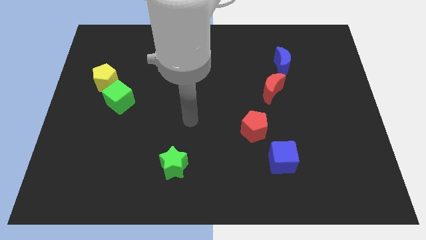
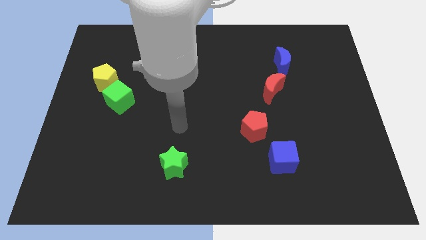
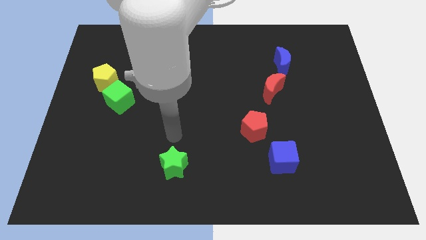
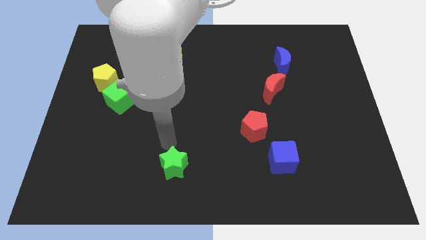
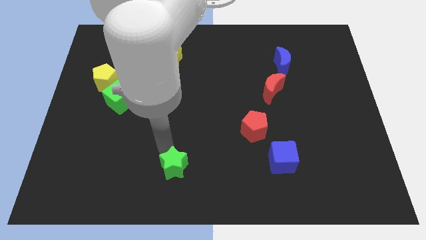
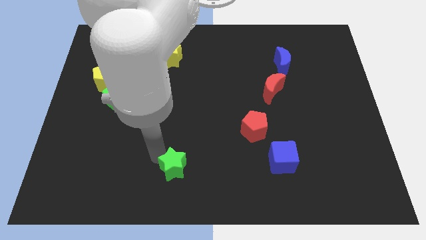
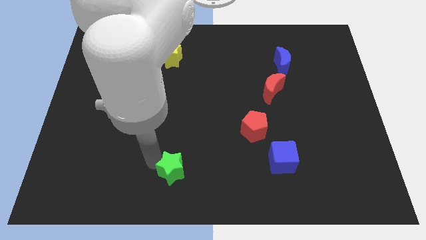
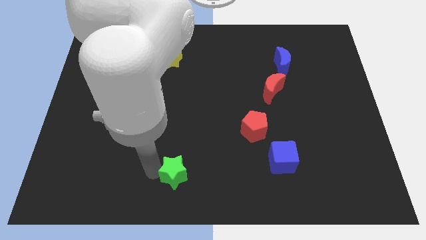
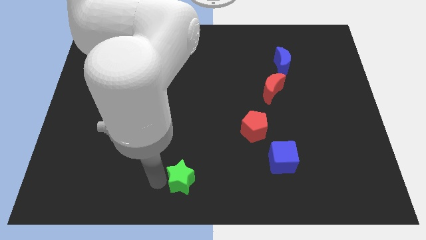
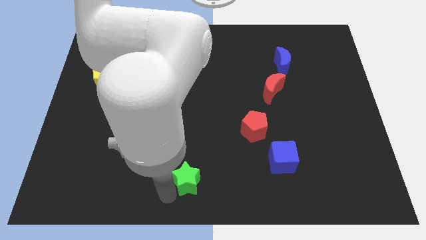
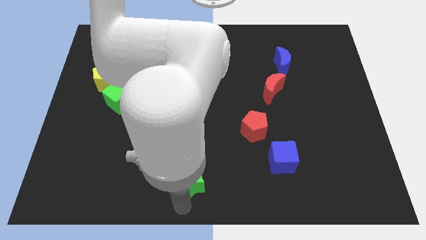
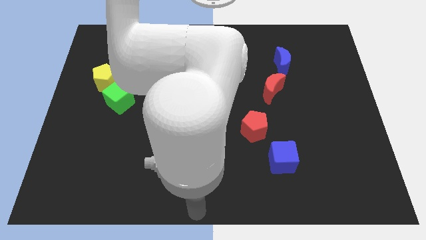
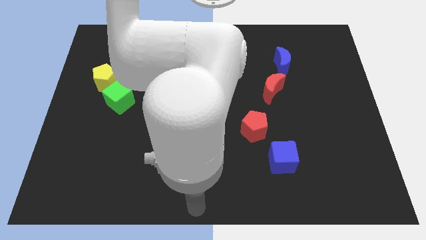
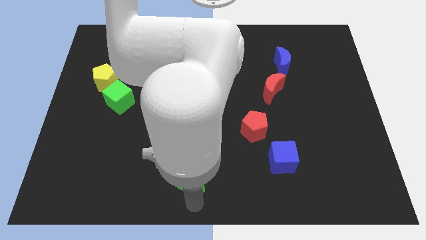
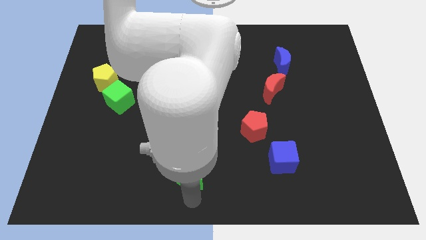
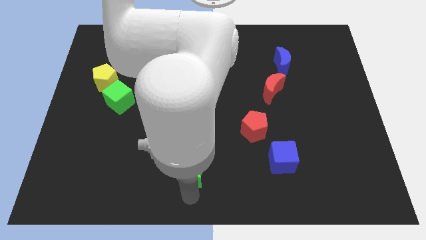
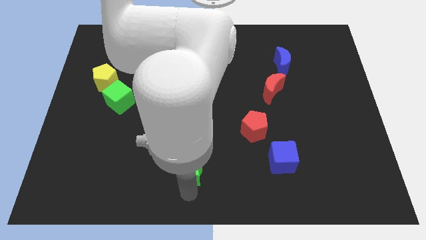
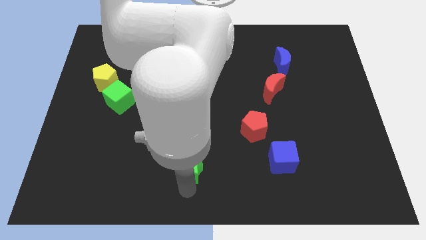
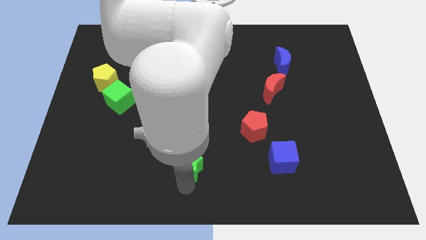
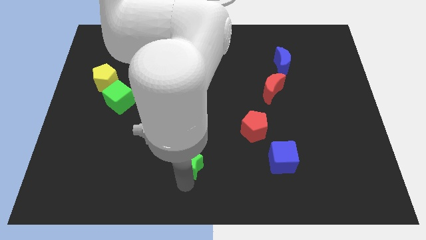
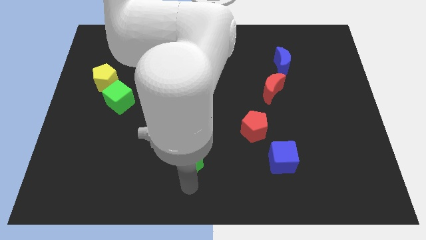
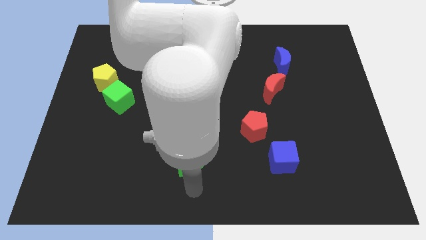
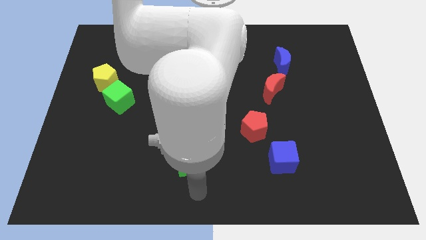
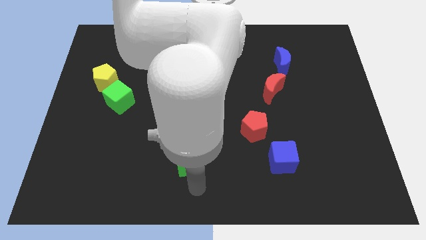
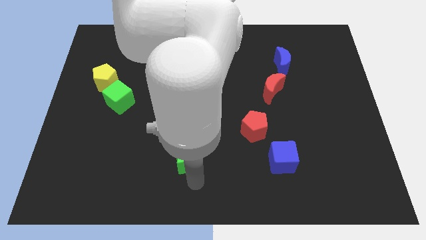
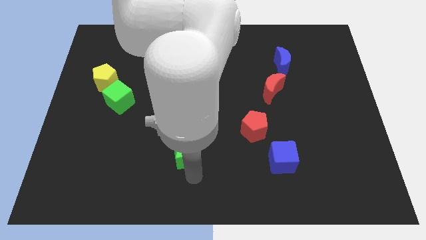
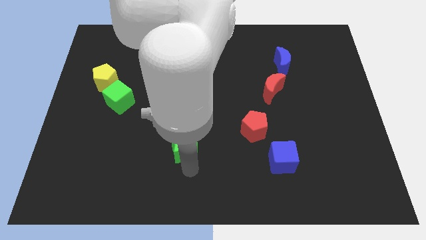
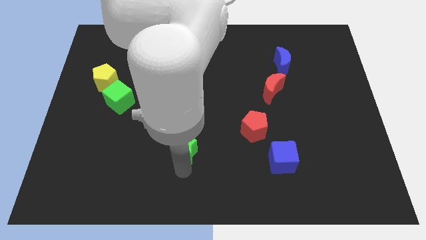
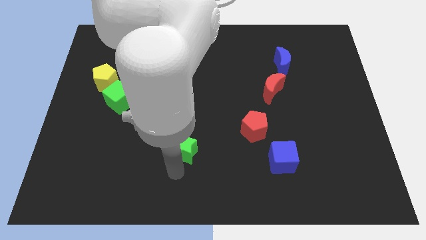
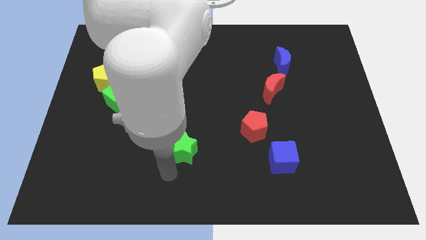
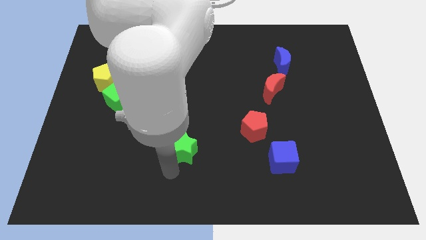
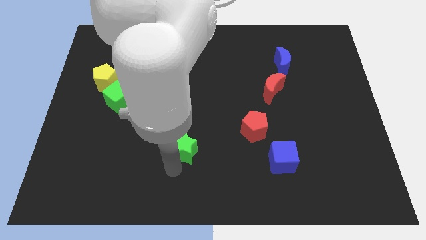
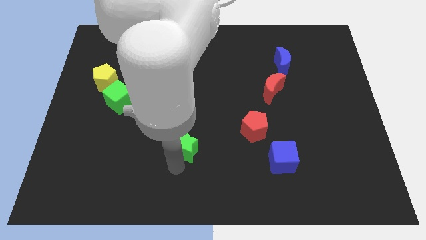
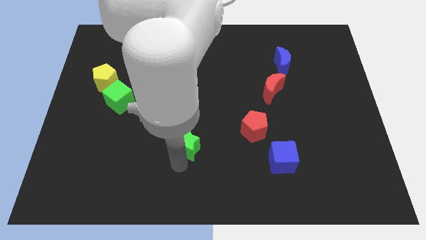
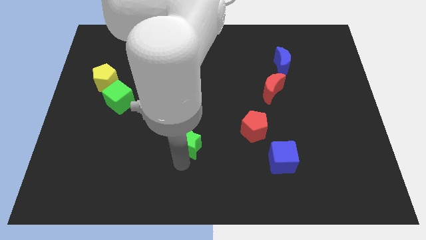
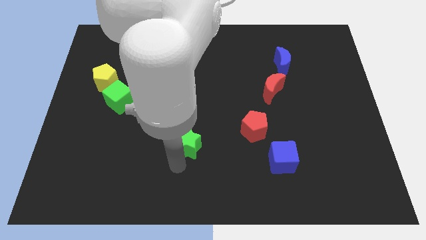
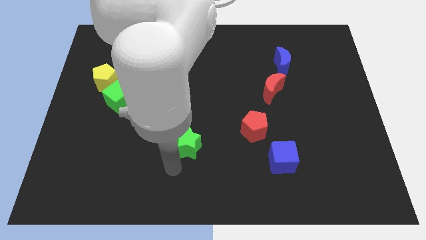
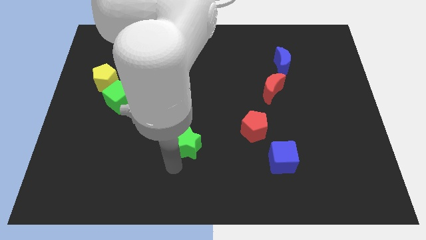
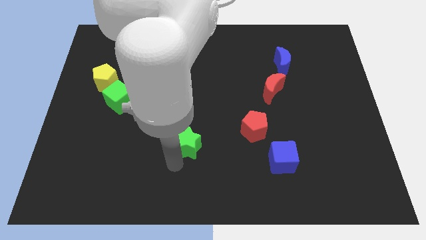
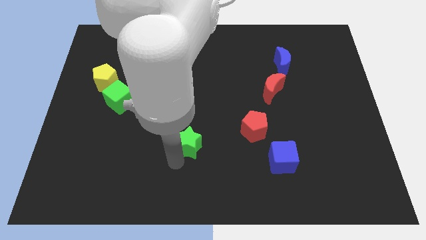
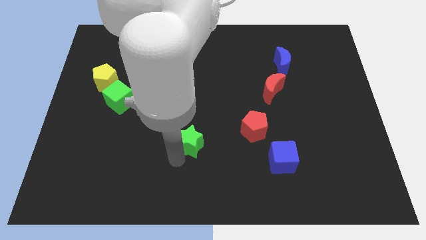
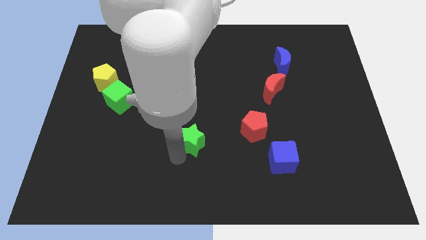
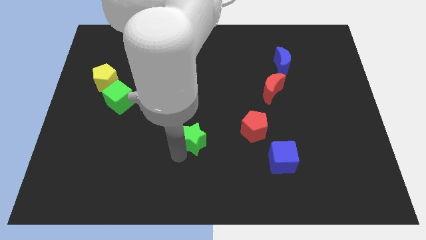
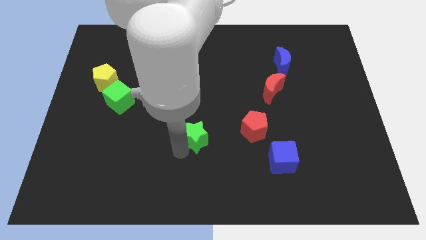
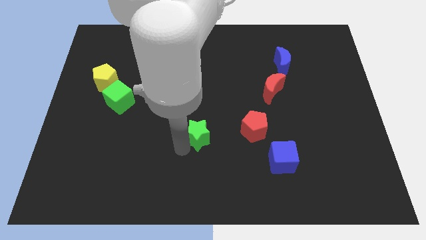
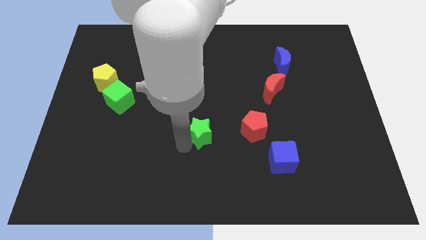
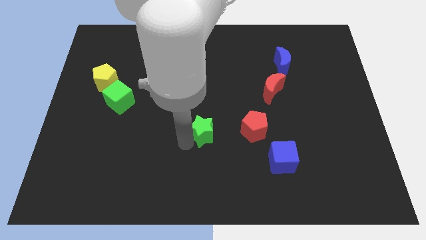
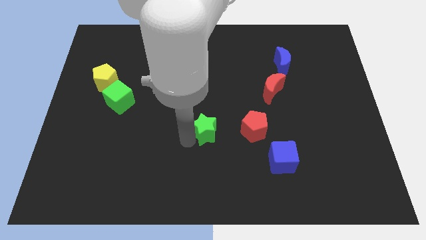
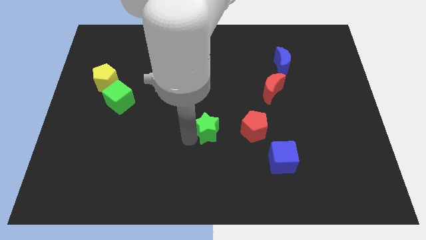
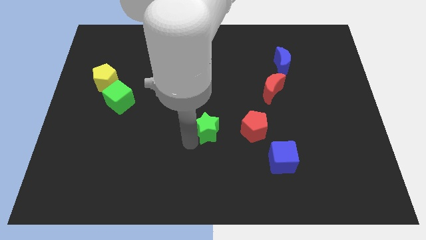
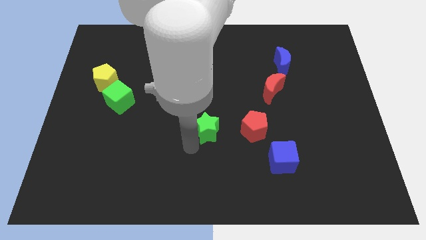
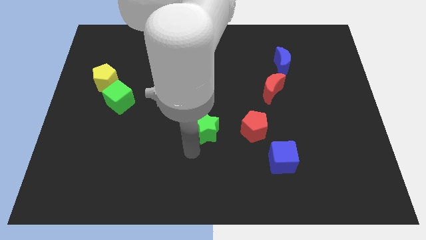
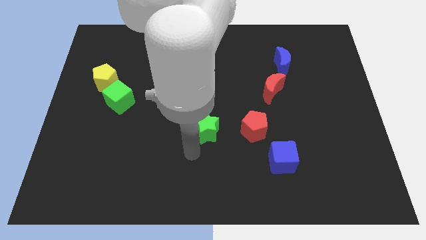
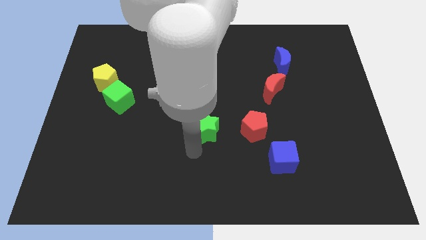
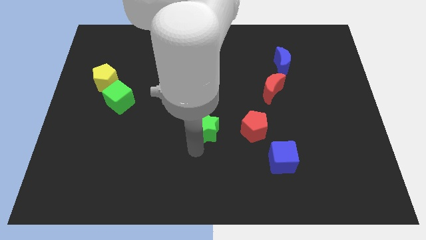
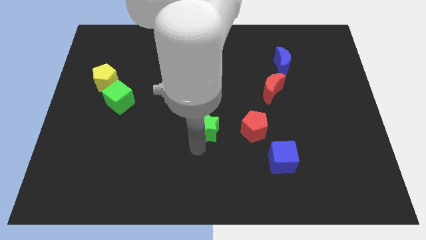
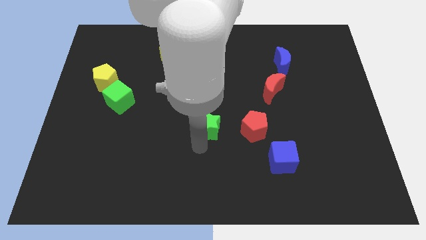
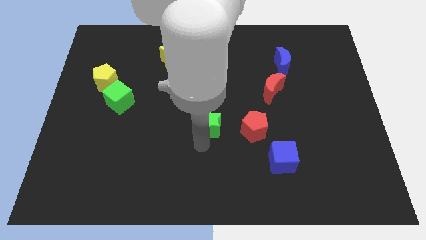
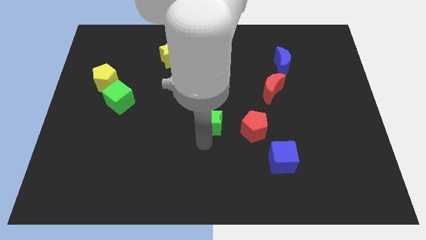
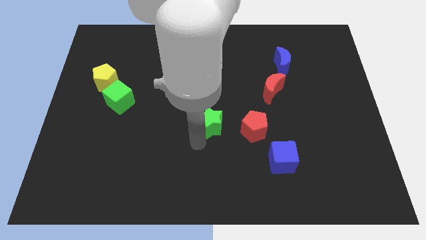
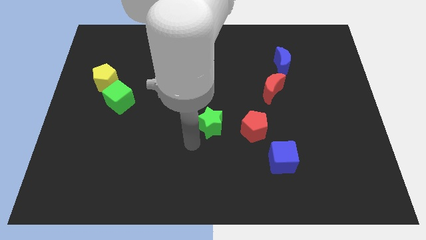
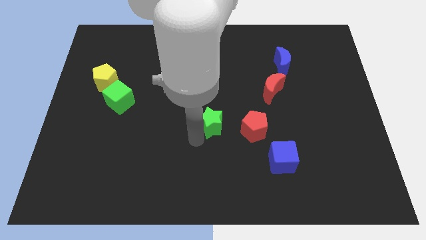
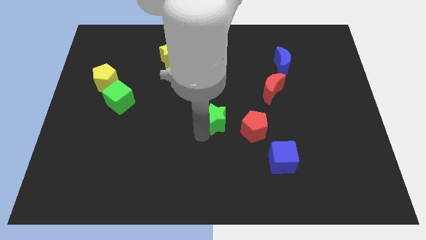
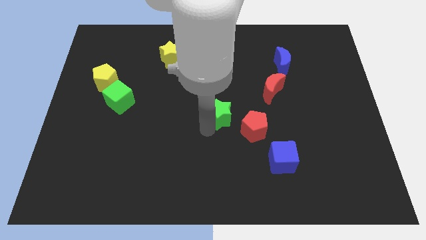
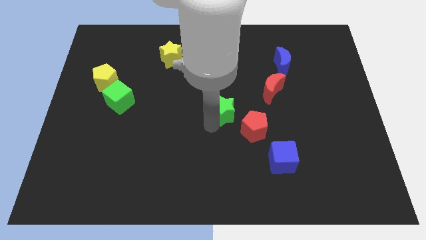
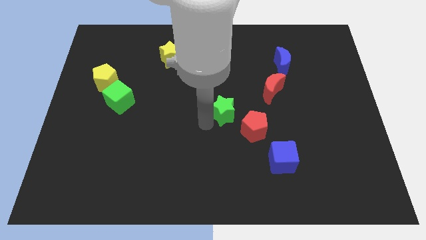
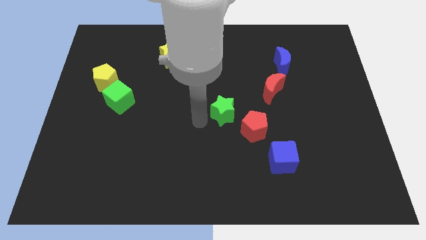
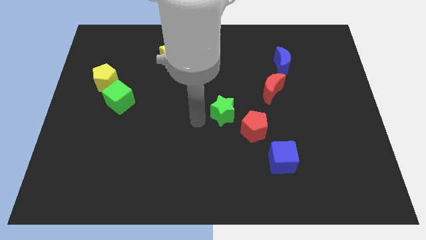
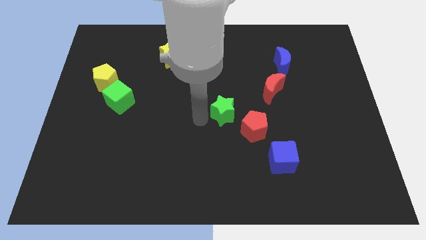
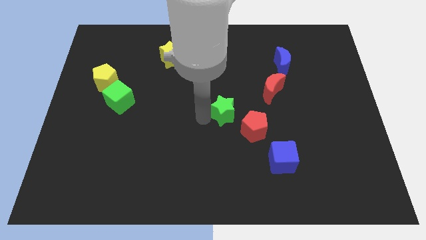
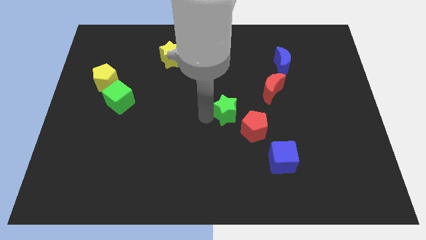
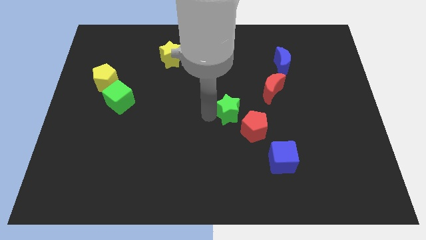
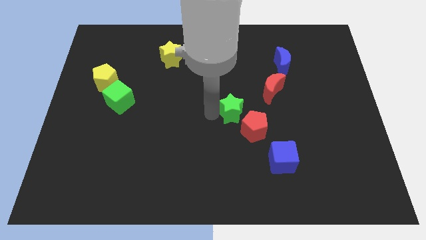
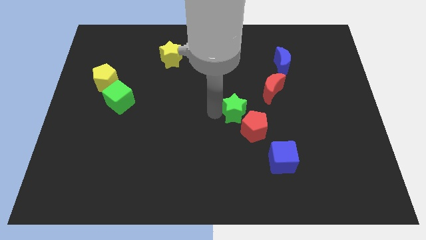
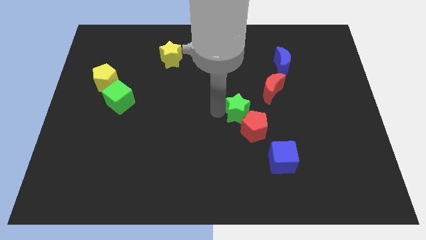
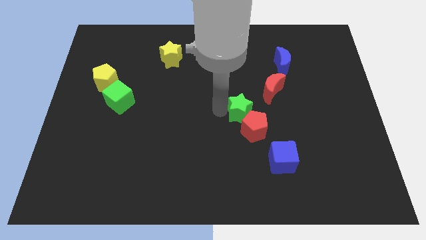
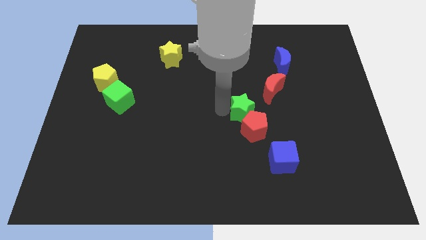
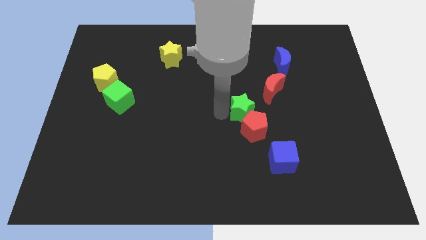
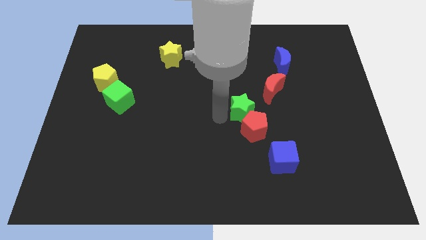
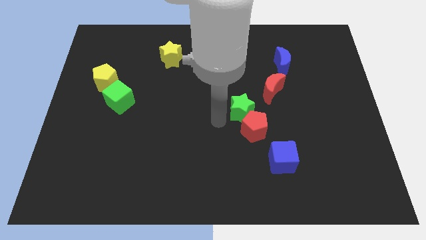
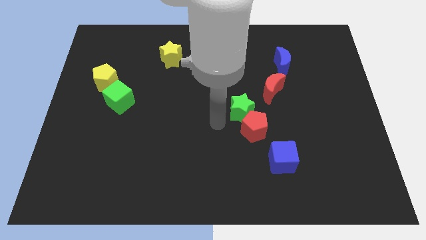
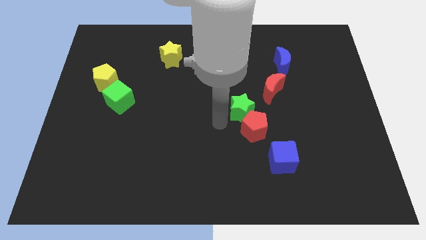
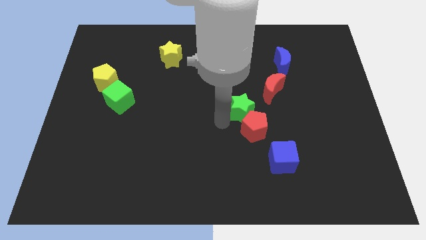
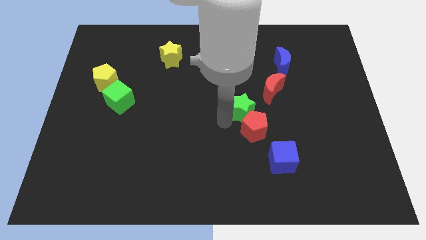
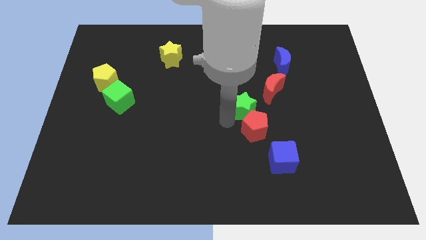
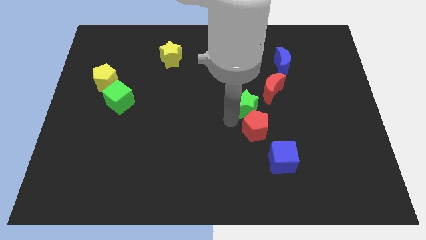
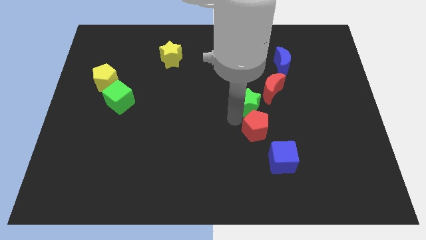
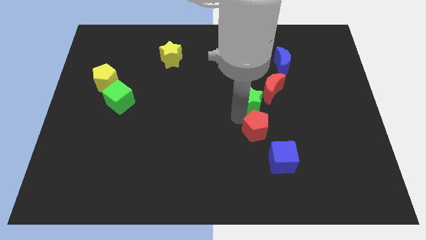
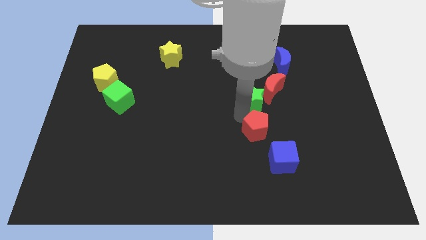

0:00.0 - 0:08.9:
slide the green star close to the red moon
